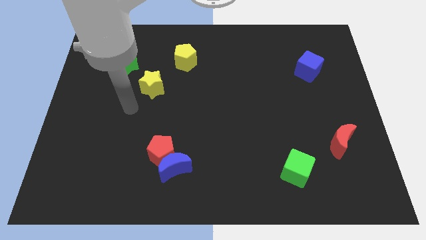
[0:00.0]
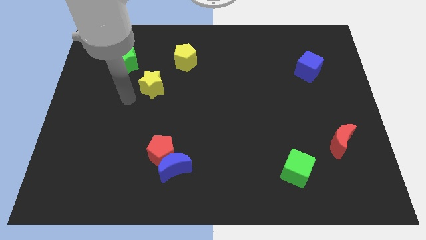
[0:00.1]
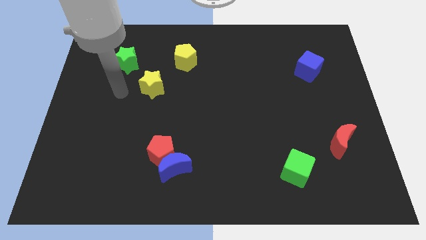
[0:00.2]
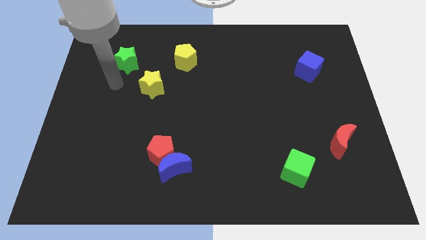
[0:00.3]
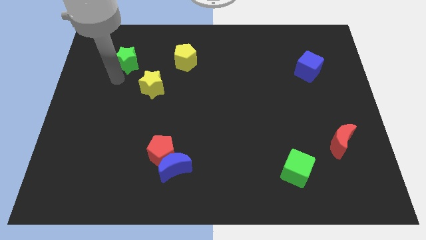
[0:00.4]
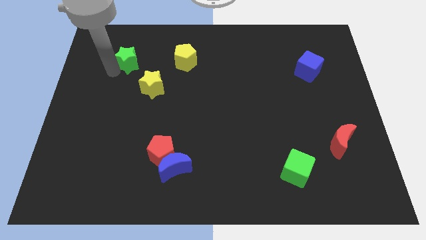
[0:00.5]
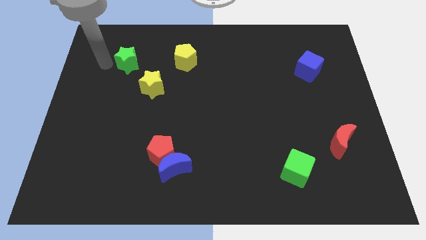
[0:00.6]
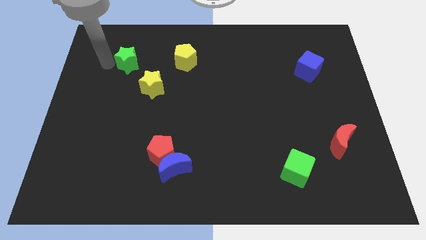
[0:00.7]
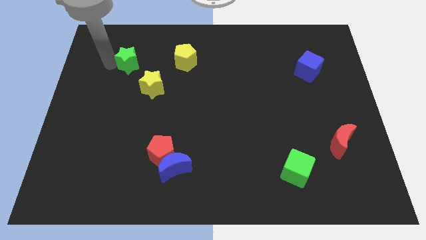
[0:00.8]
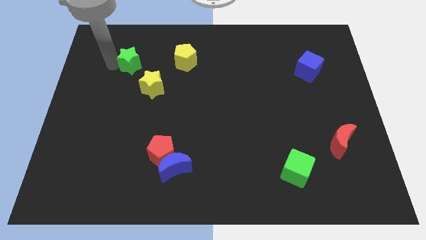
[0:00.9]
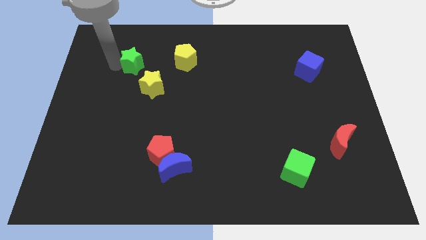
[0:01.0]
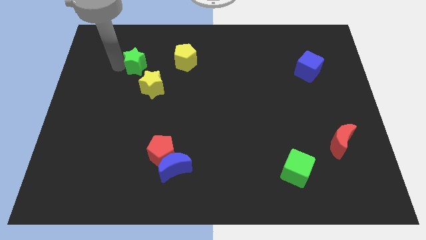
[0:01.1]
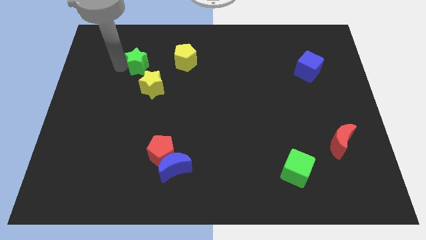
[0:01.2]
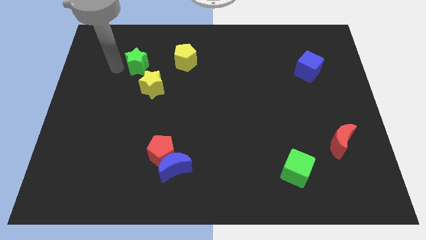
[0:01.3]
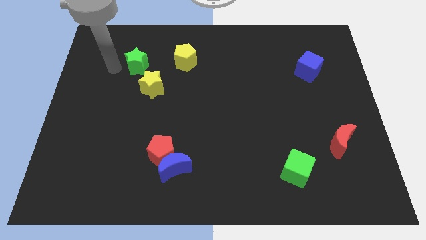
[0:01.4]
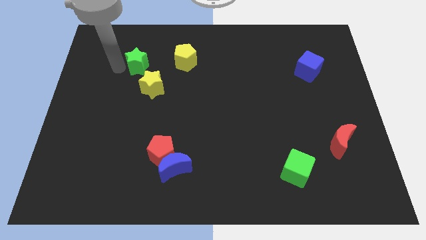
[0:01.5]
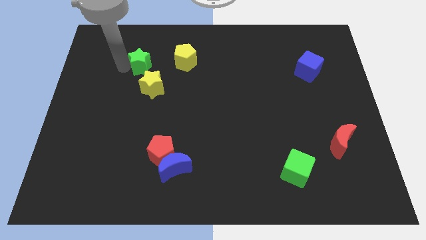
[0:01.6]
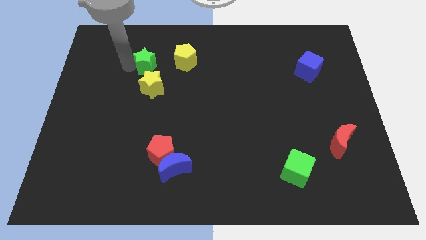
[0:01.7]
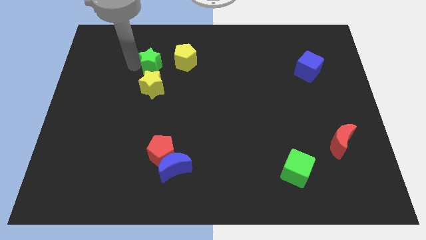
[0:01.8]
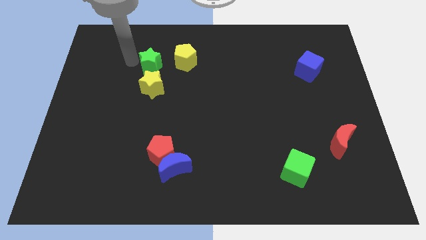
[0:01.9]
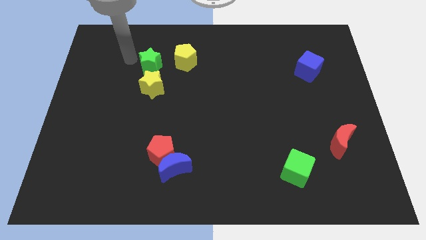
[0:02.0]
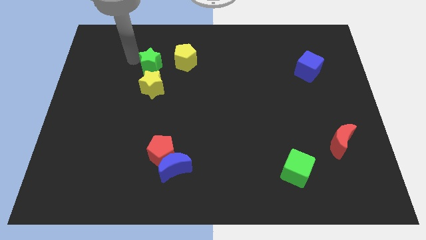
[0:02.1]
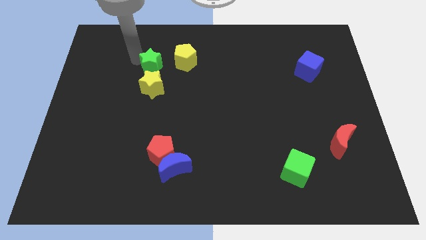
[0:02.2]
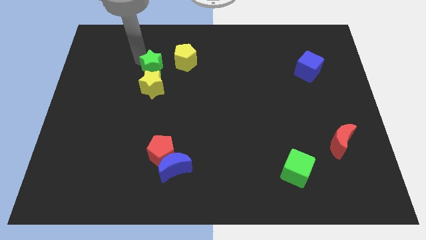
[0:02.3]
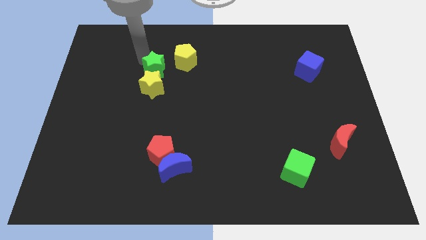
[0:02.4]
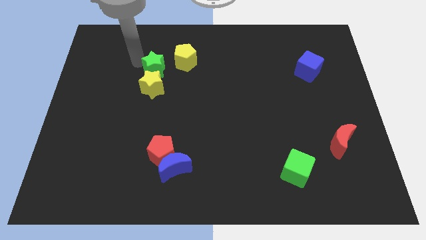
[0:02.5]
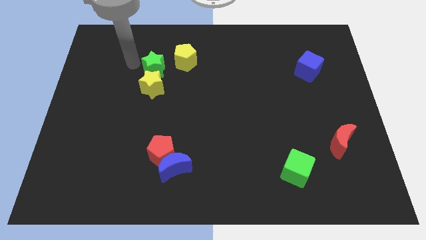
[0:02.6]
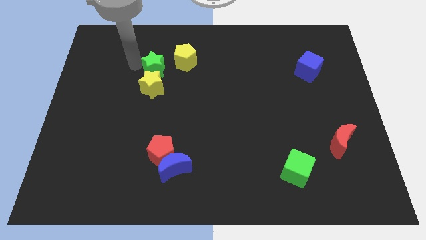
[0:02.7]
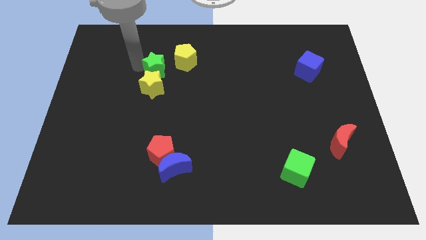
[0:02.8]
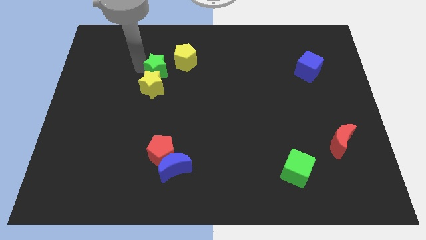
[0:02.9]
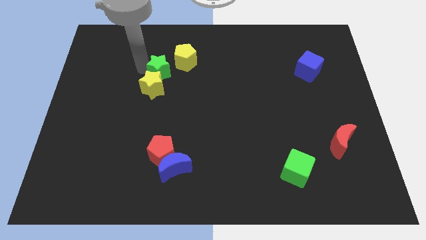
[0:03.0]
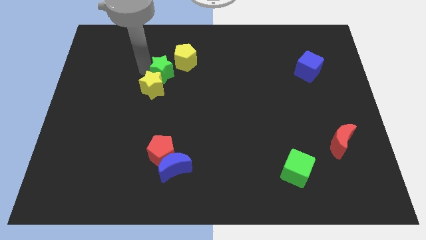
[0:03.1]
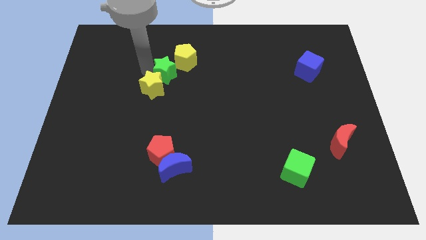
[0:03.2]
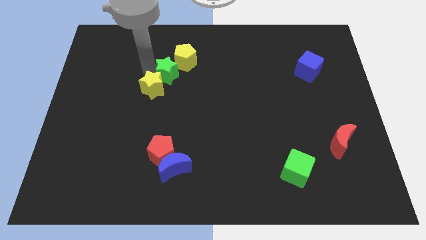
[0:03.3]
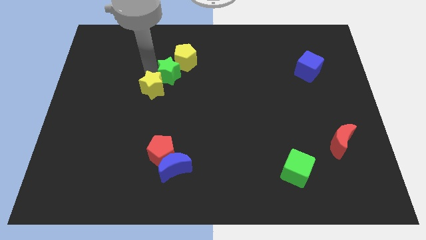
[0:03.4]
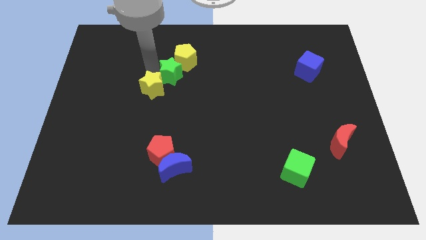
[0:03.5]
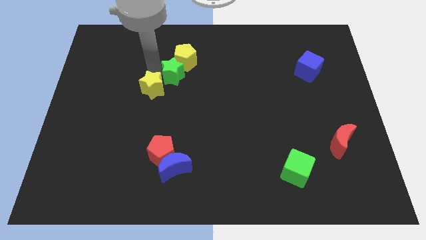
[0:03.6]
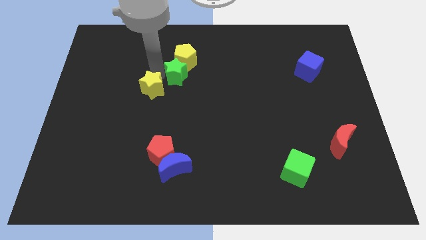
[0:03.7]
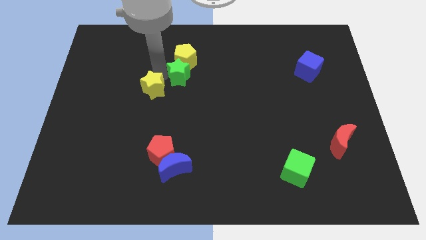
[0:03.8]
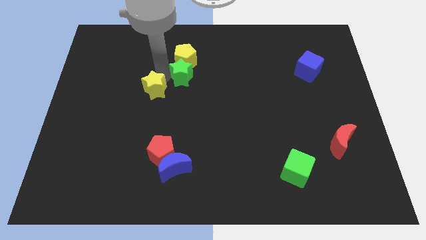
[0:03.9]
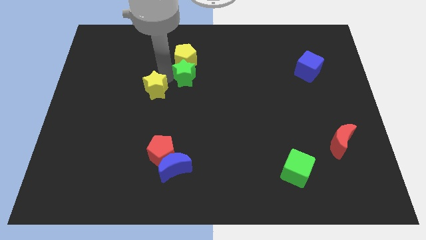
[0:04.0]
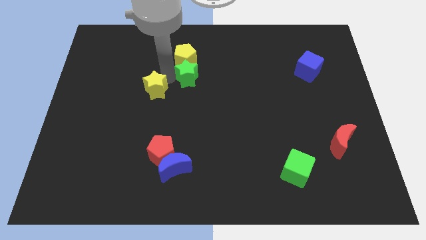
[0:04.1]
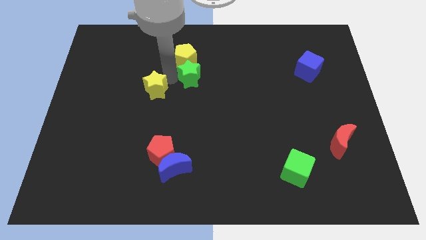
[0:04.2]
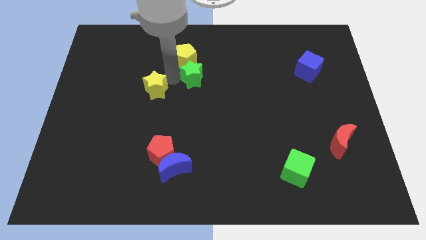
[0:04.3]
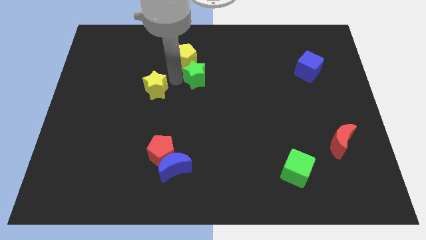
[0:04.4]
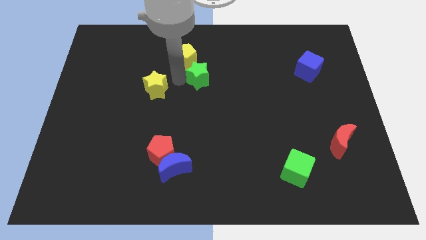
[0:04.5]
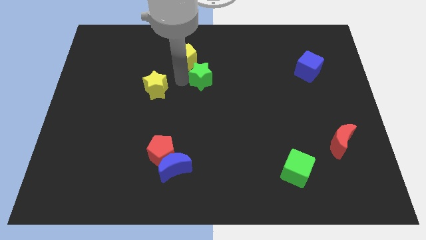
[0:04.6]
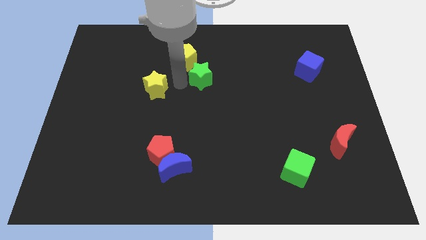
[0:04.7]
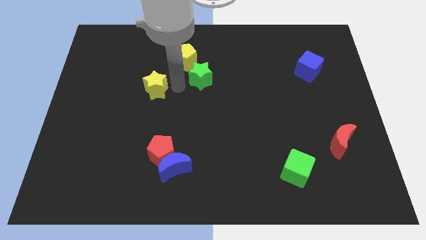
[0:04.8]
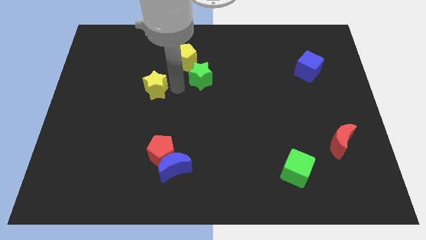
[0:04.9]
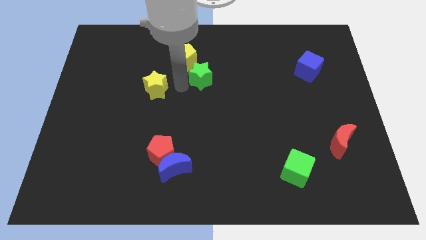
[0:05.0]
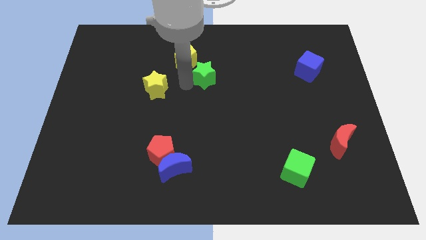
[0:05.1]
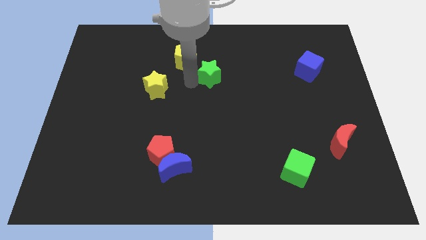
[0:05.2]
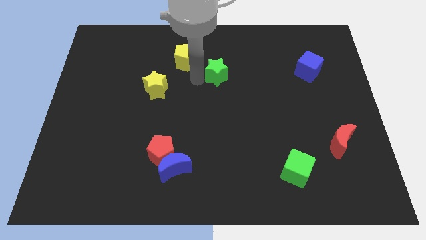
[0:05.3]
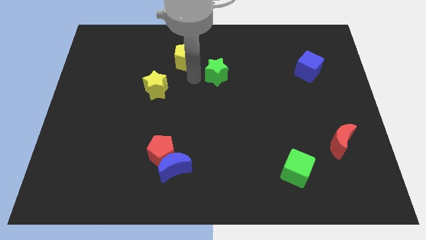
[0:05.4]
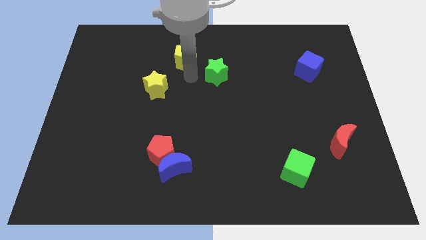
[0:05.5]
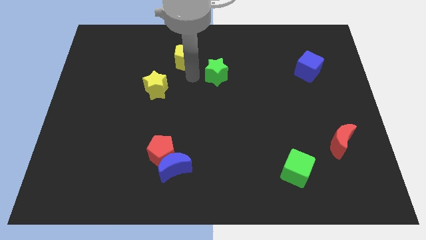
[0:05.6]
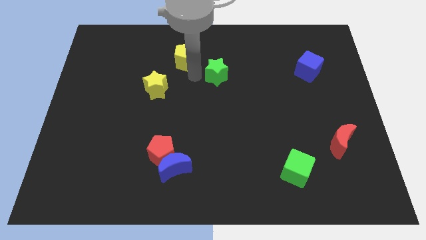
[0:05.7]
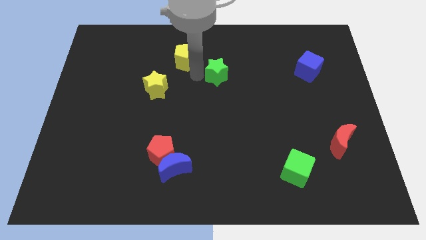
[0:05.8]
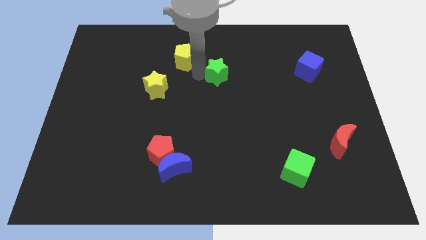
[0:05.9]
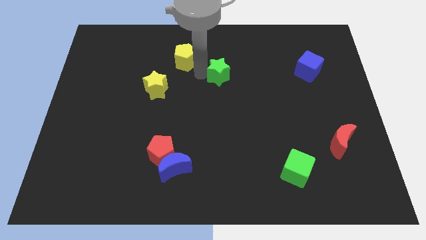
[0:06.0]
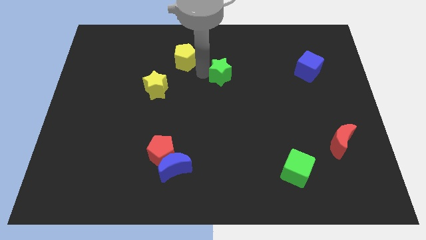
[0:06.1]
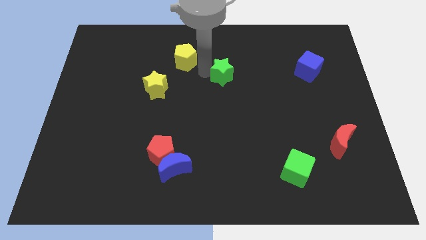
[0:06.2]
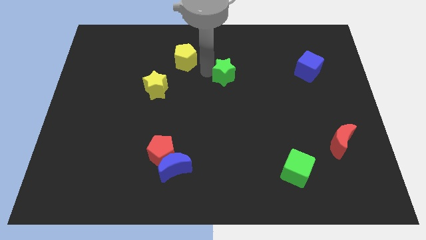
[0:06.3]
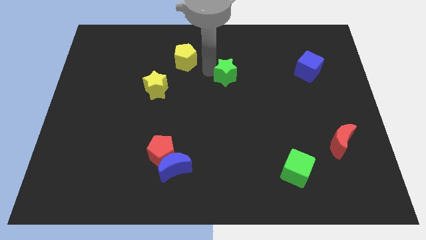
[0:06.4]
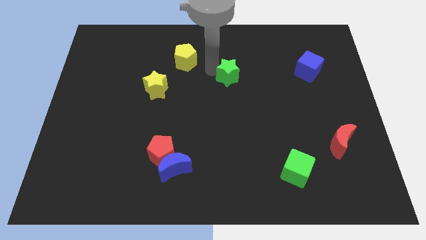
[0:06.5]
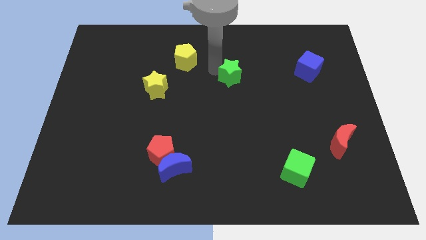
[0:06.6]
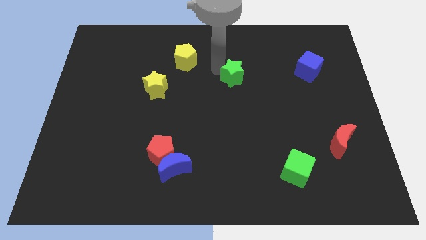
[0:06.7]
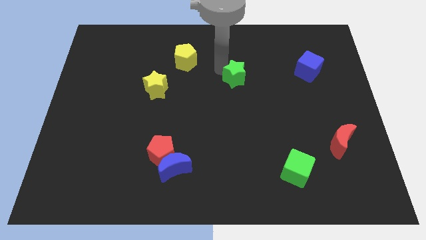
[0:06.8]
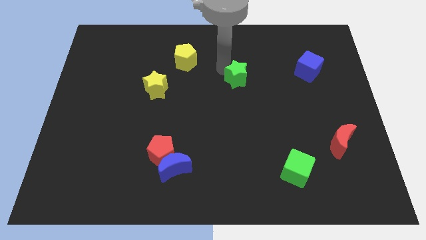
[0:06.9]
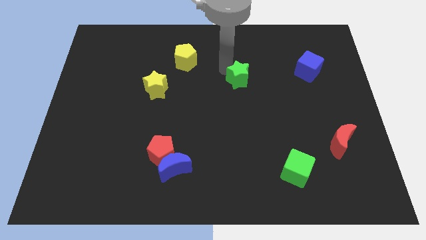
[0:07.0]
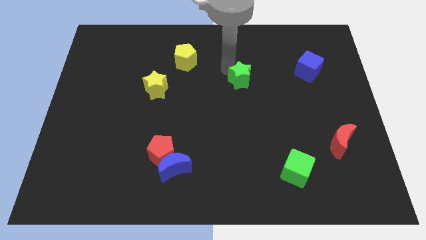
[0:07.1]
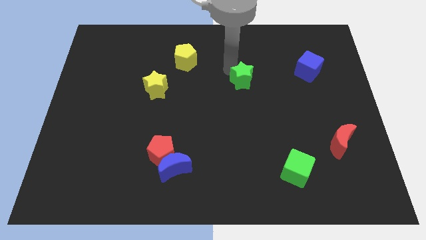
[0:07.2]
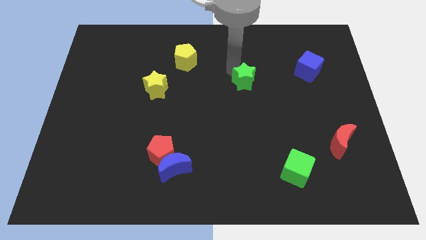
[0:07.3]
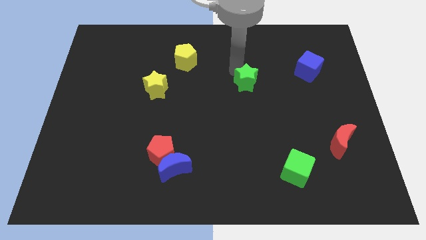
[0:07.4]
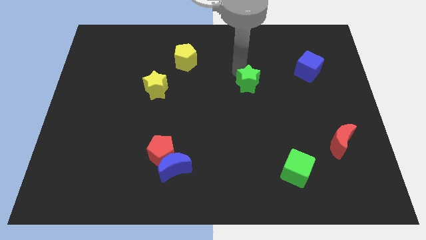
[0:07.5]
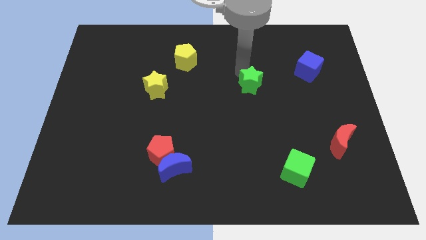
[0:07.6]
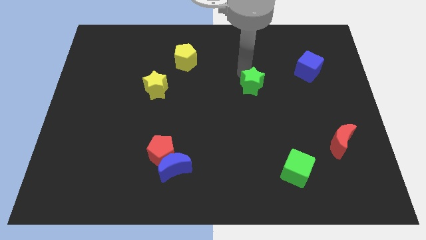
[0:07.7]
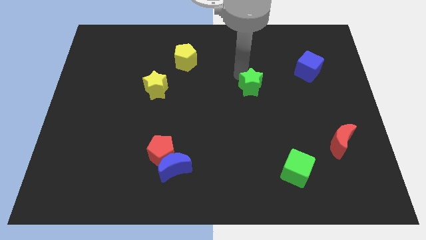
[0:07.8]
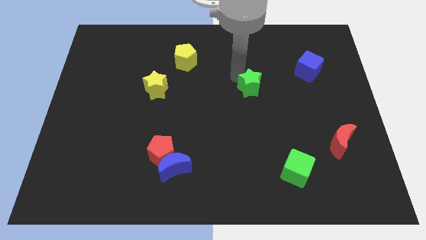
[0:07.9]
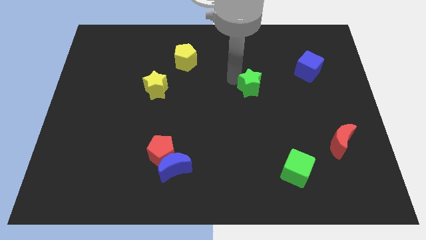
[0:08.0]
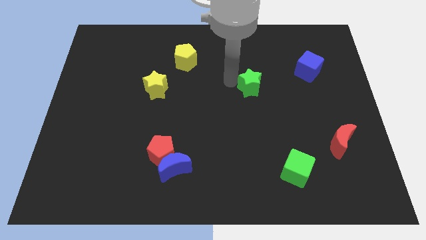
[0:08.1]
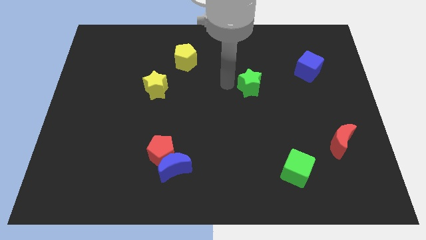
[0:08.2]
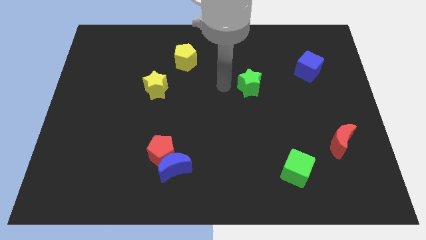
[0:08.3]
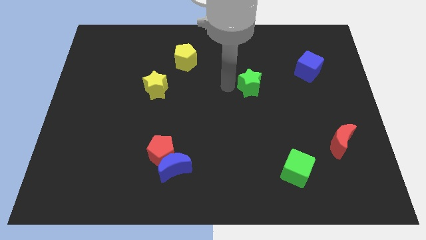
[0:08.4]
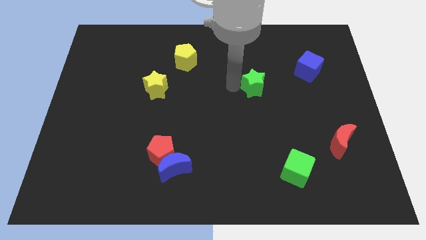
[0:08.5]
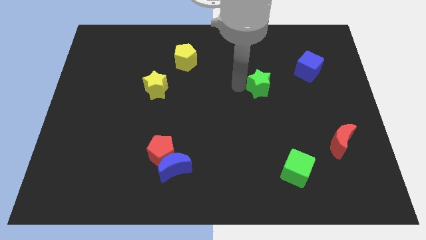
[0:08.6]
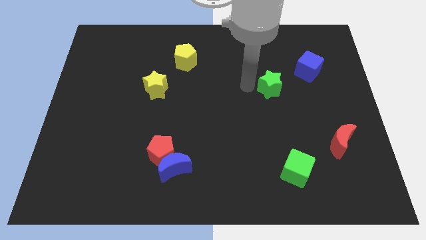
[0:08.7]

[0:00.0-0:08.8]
slide the green star to the bottom left of the blue cube
